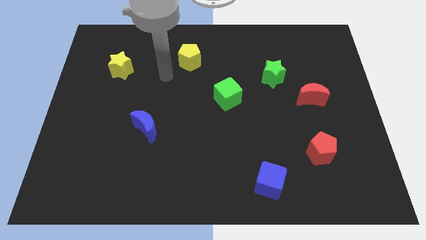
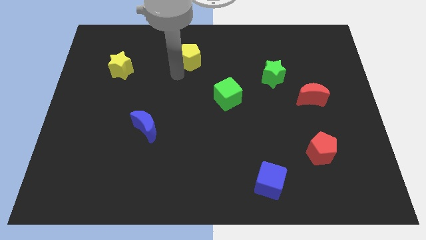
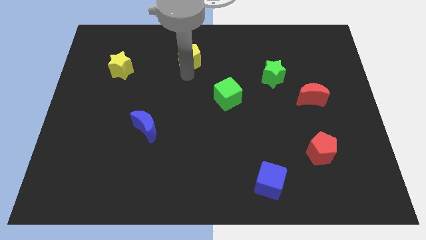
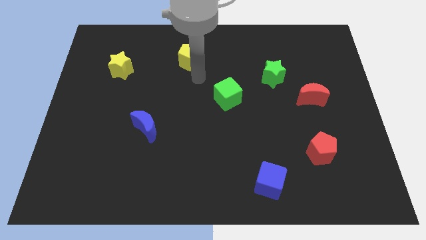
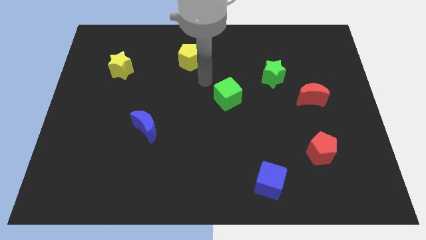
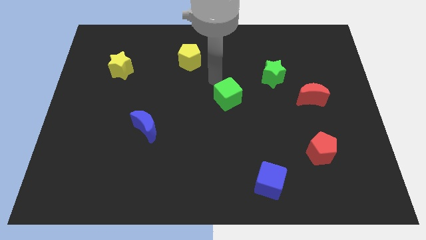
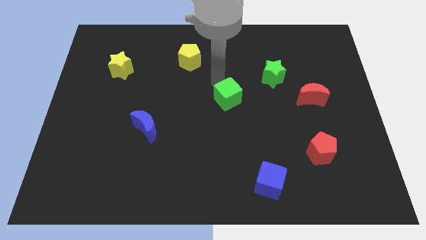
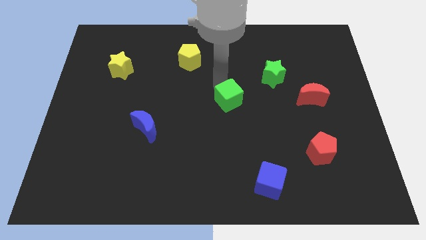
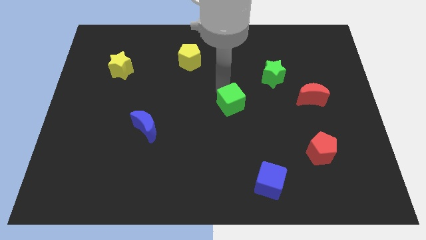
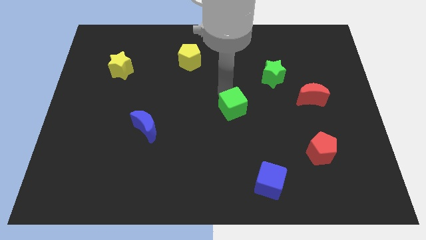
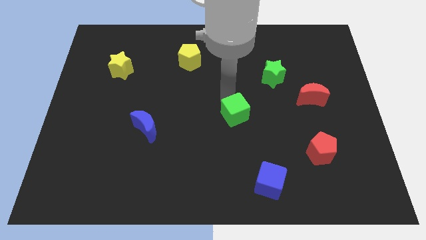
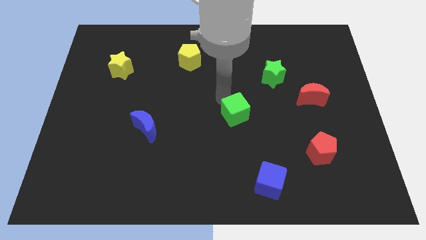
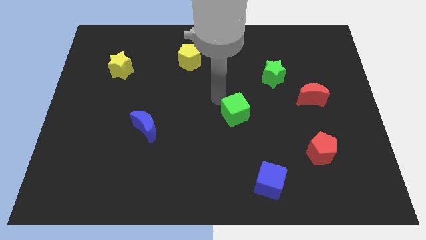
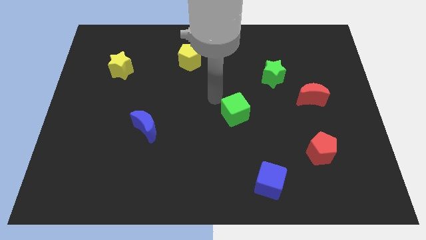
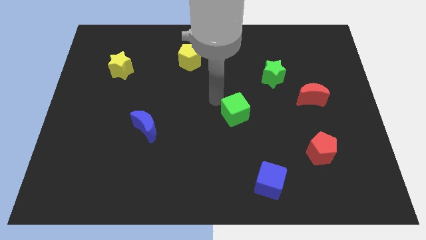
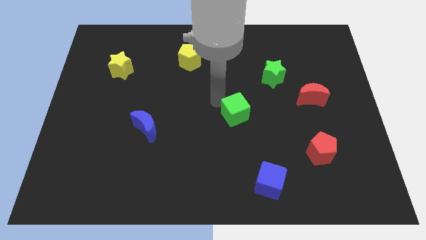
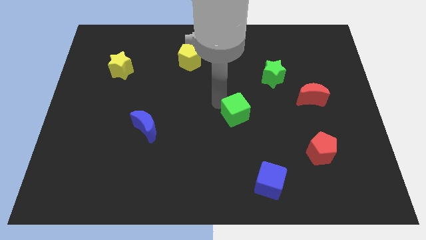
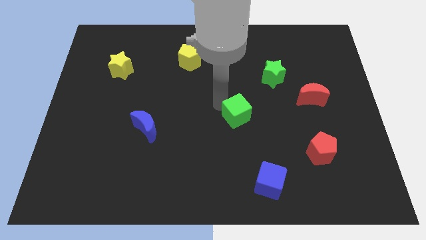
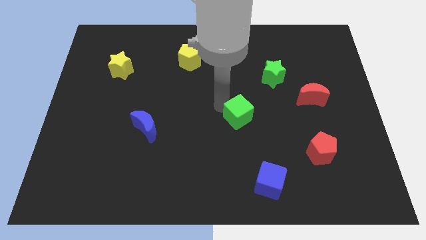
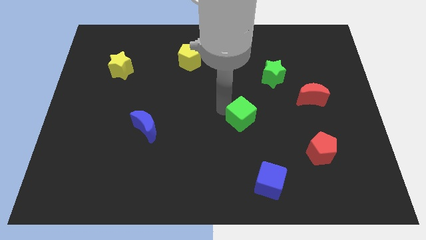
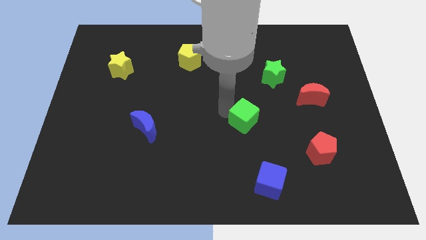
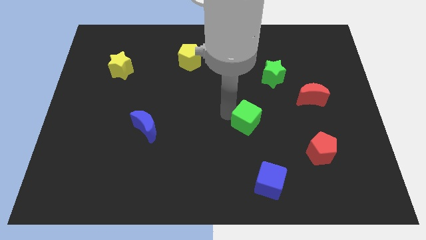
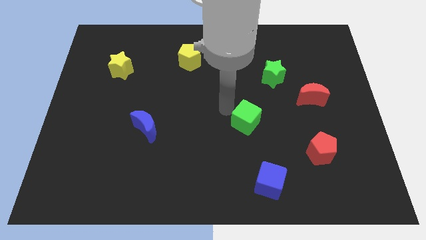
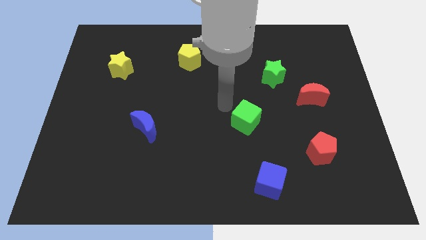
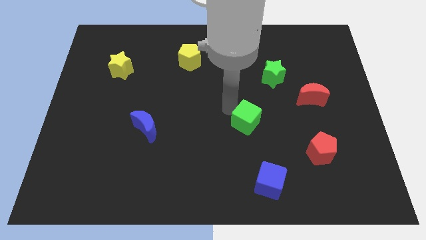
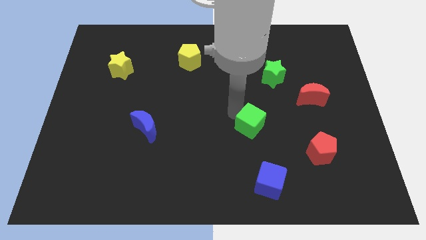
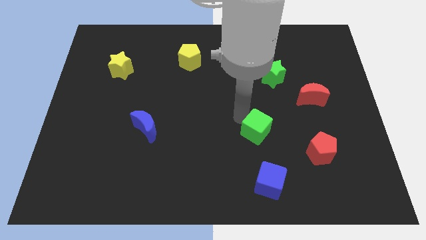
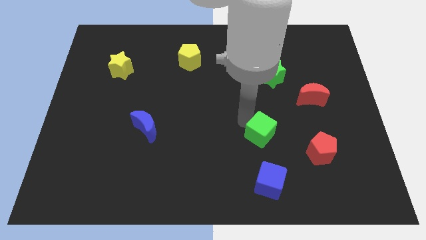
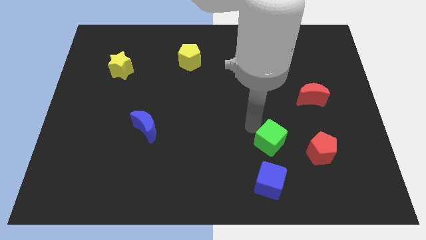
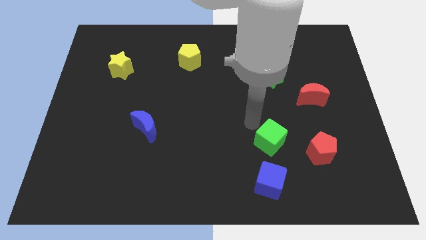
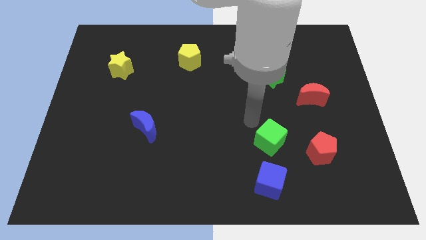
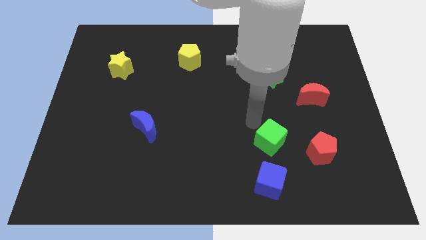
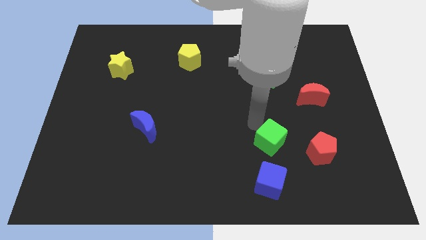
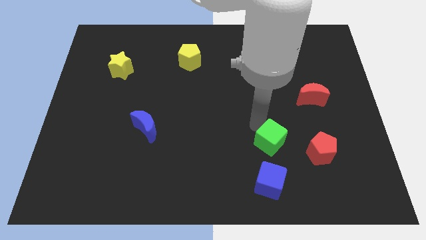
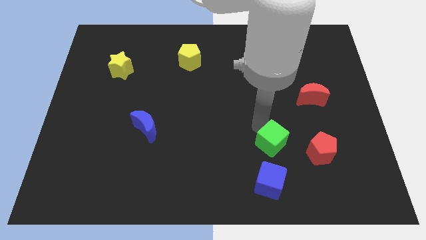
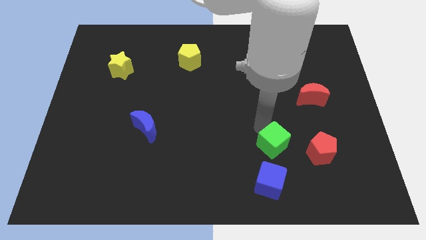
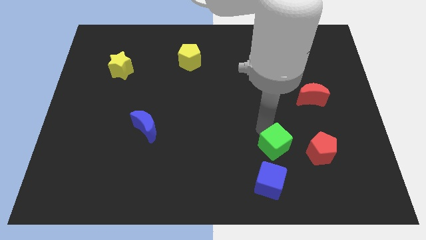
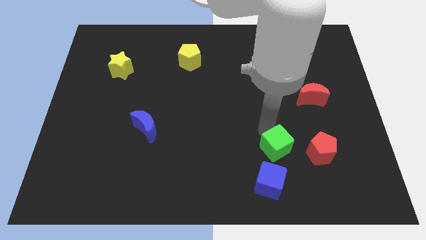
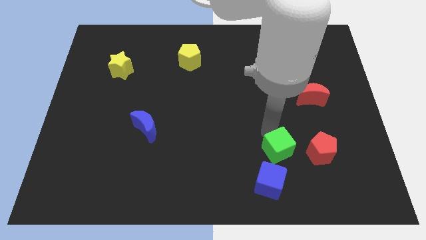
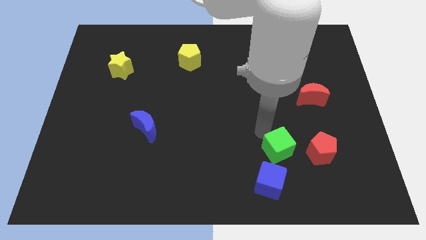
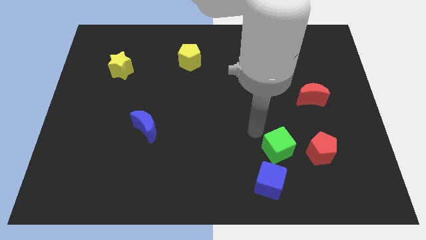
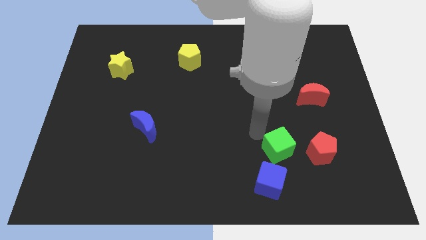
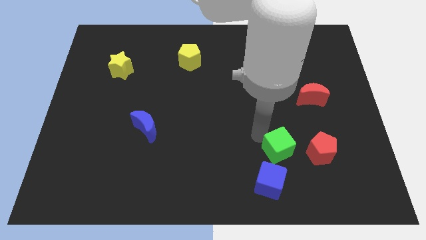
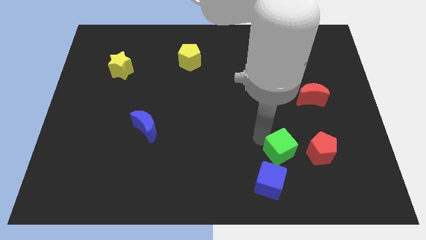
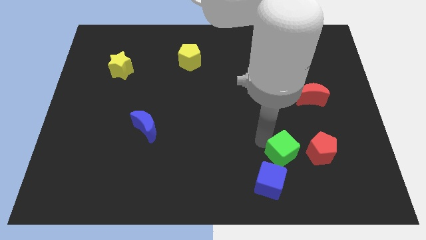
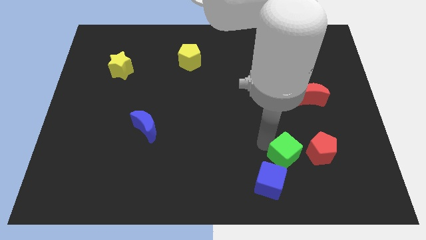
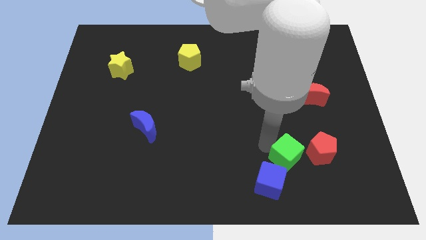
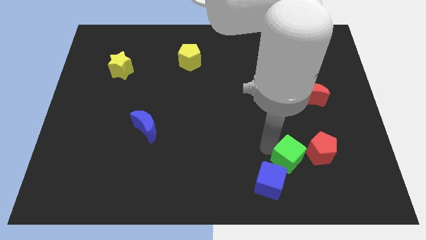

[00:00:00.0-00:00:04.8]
move the green cube diagonally downwards and right

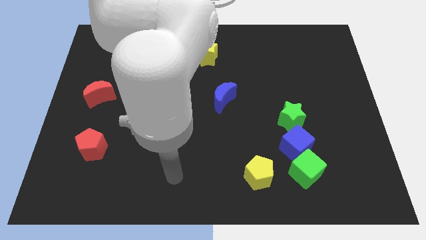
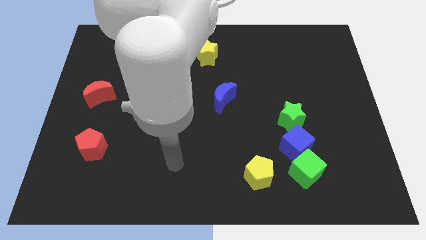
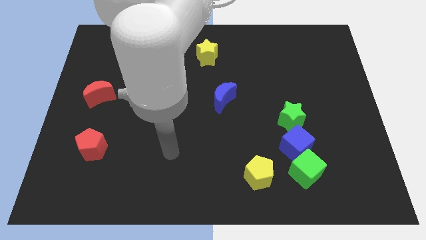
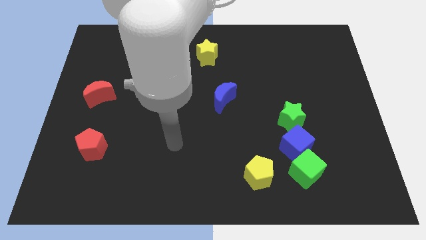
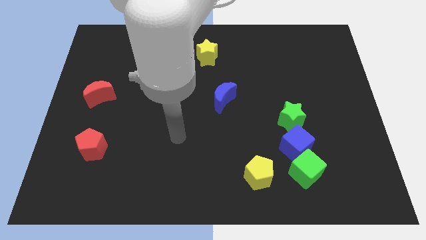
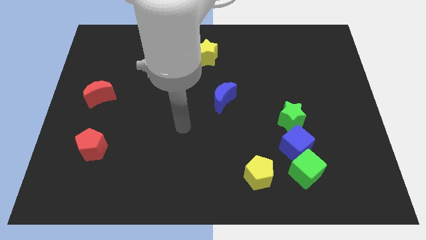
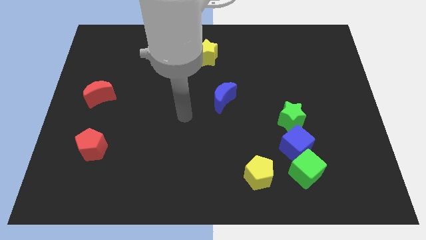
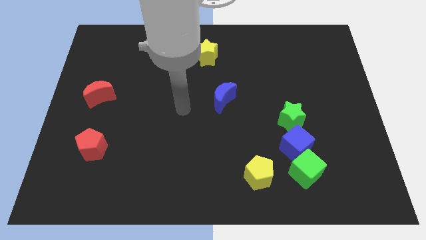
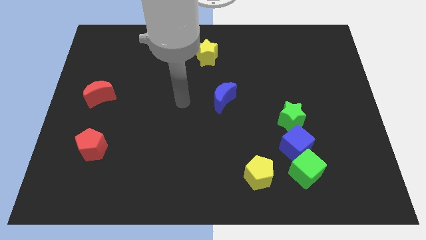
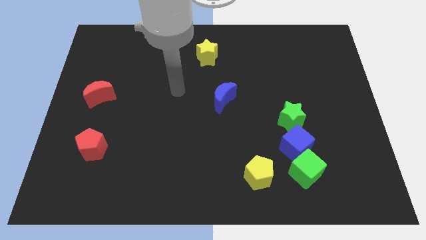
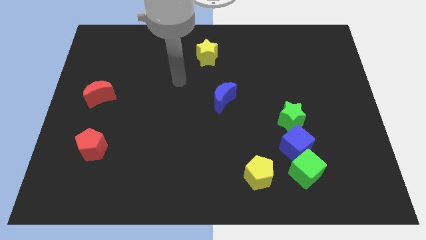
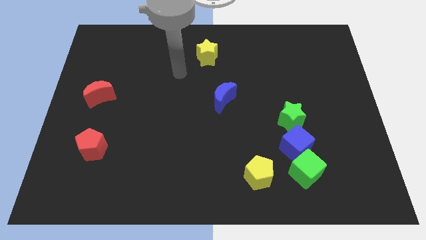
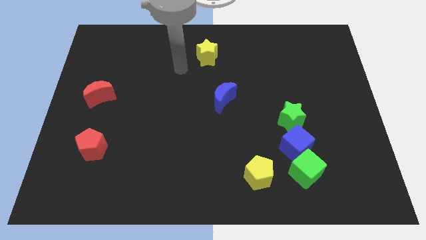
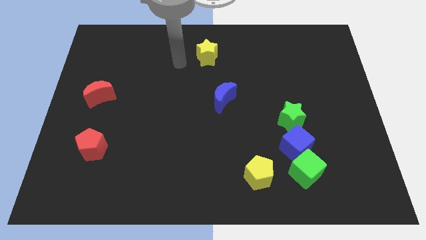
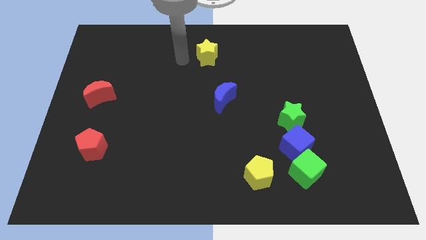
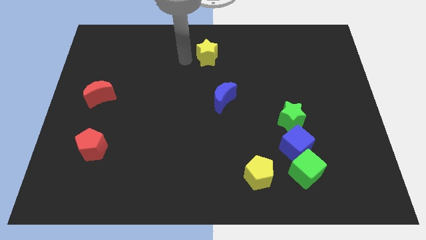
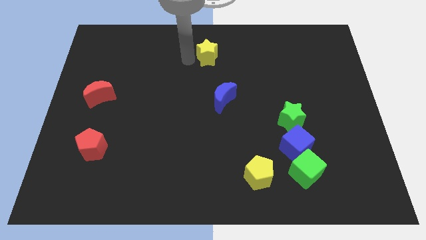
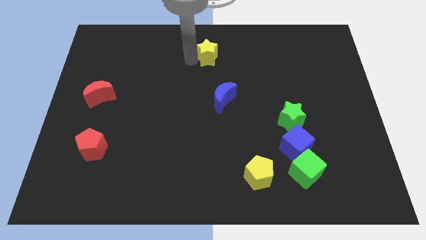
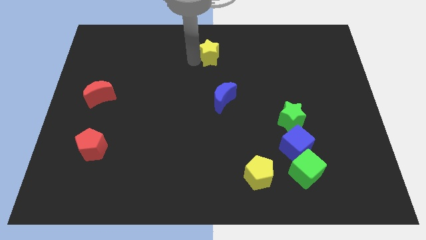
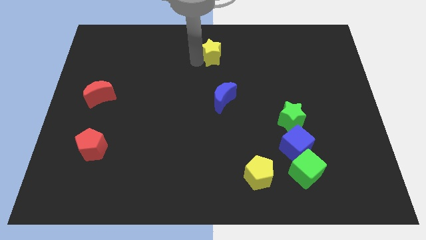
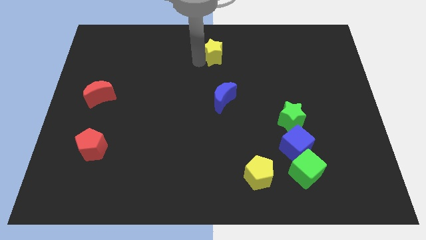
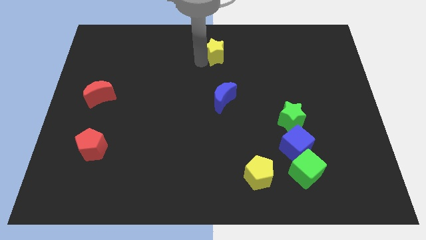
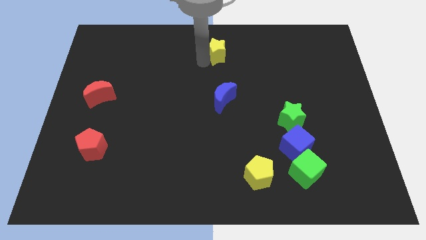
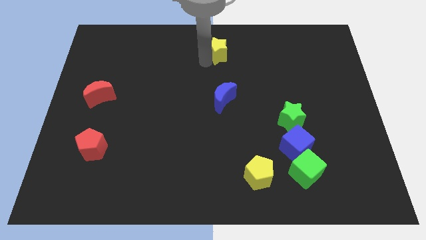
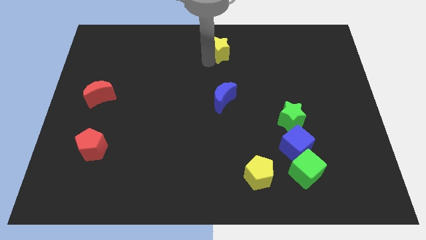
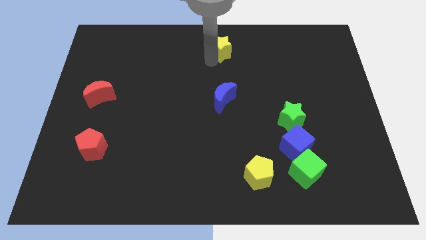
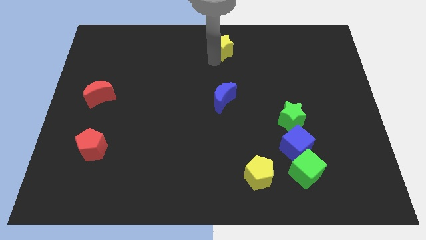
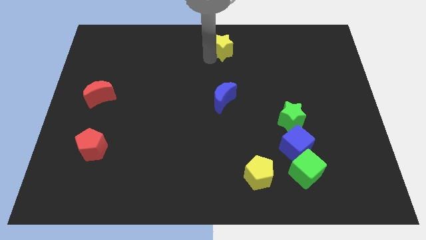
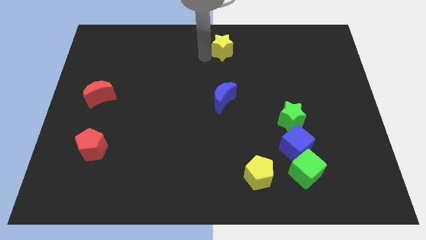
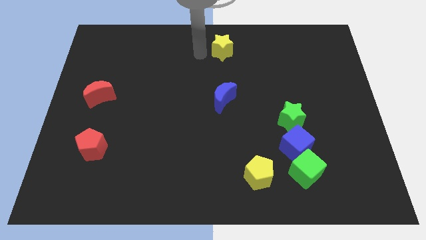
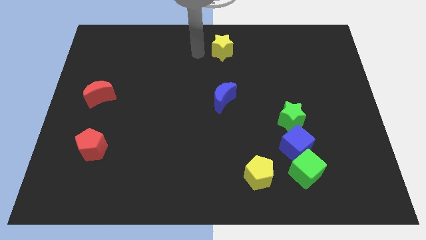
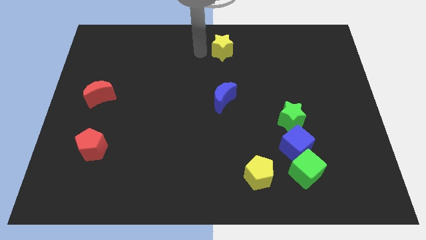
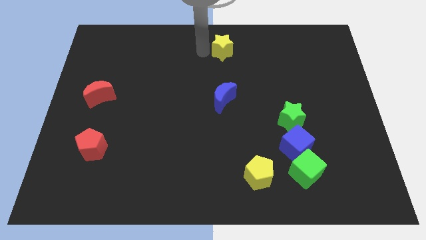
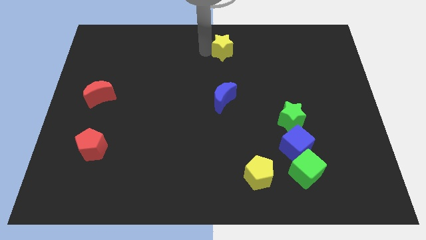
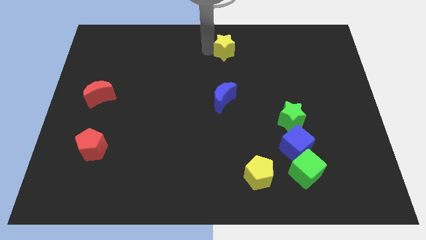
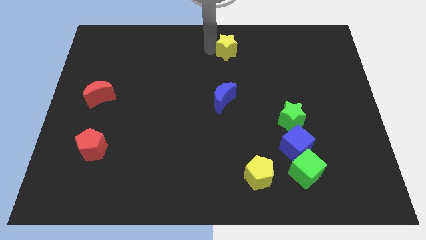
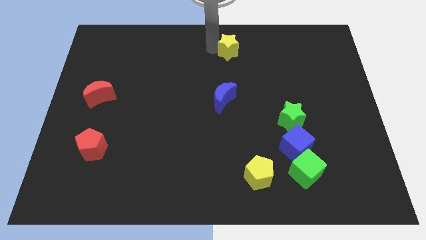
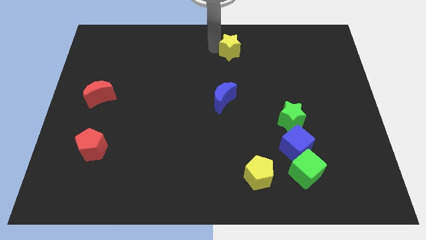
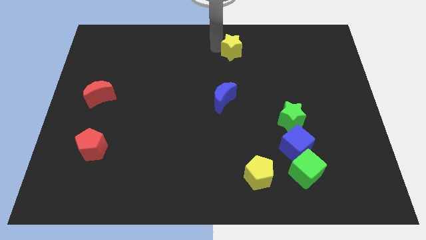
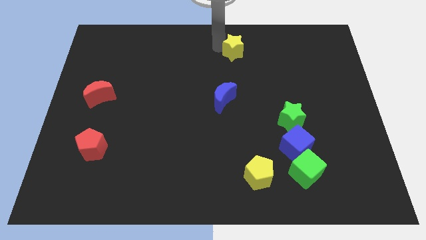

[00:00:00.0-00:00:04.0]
slightly move the yellow star right
